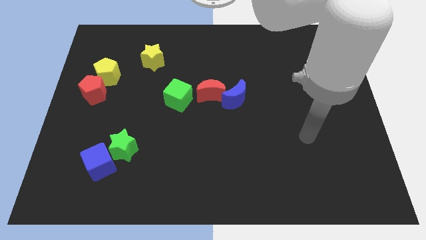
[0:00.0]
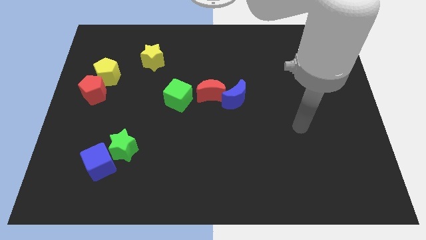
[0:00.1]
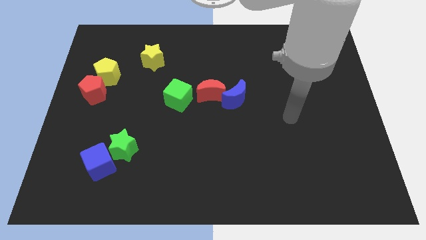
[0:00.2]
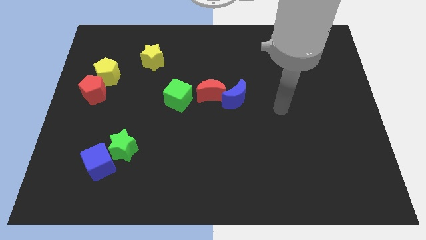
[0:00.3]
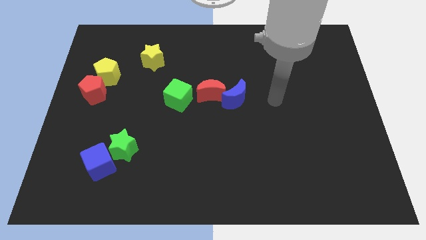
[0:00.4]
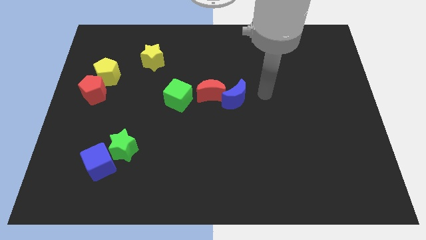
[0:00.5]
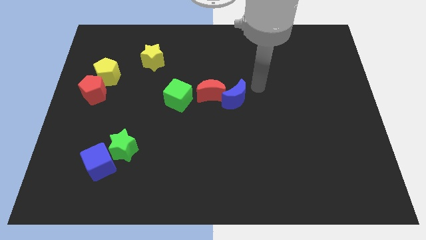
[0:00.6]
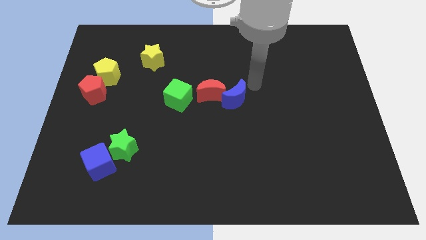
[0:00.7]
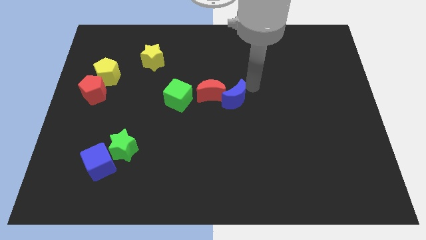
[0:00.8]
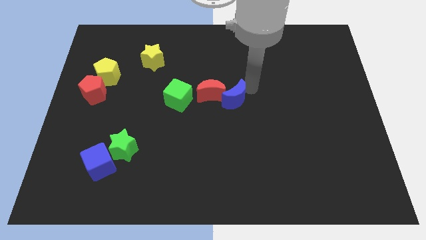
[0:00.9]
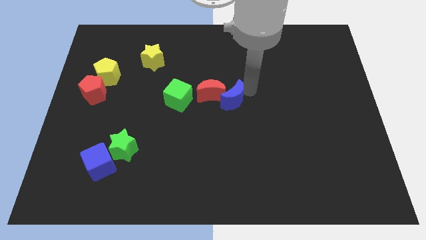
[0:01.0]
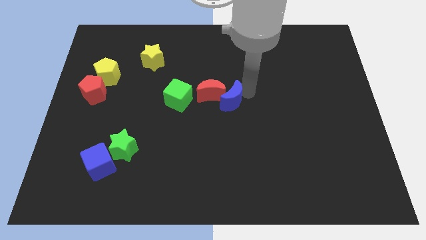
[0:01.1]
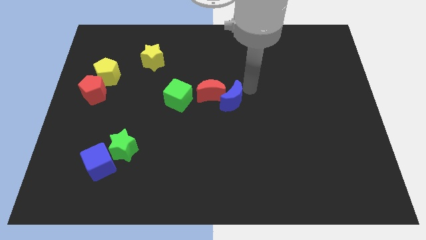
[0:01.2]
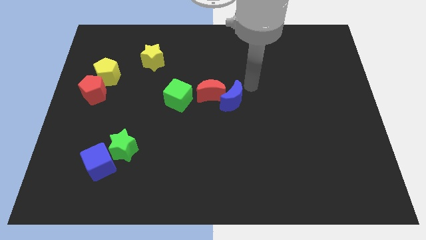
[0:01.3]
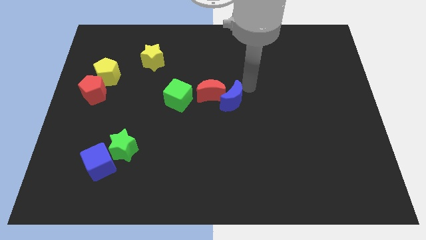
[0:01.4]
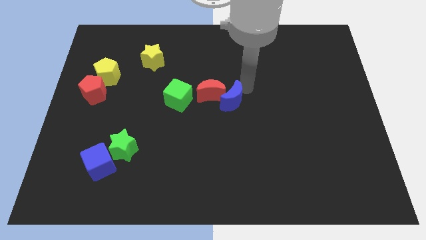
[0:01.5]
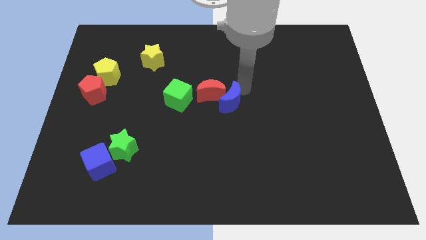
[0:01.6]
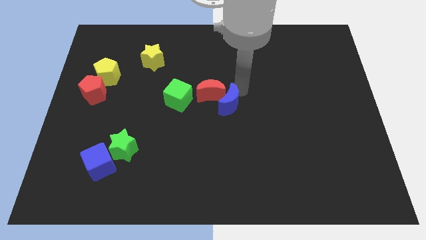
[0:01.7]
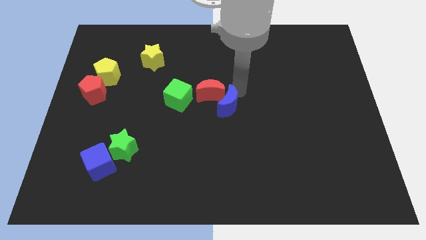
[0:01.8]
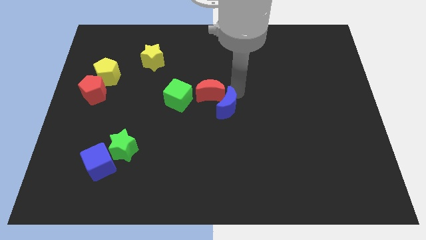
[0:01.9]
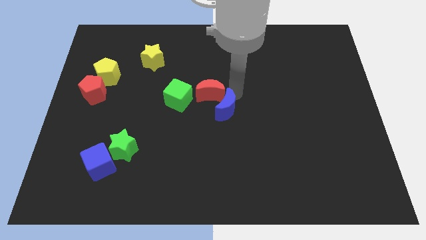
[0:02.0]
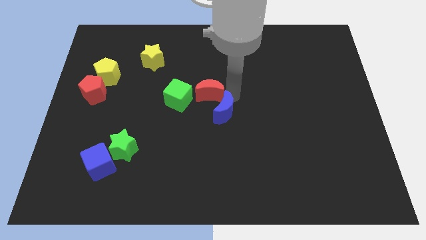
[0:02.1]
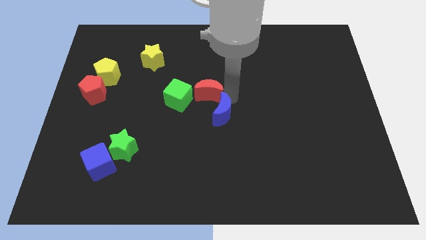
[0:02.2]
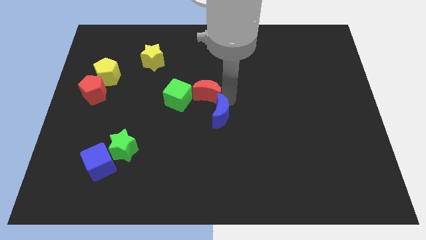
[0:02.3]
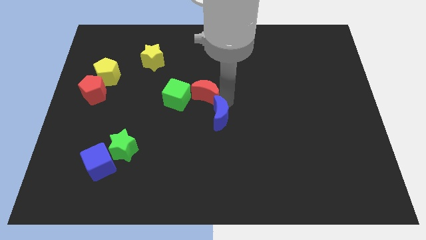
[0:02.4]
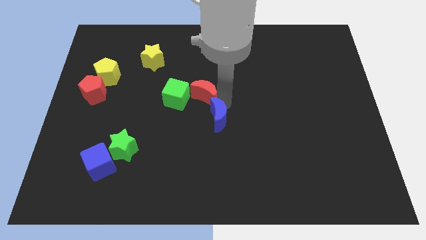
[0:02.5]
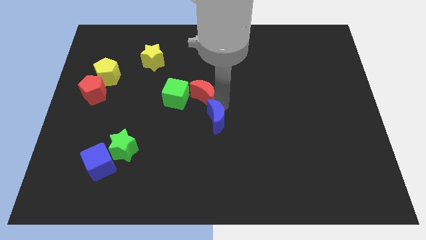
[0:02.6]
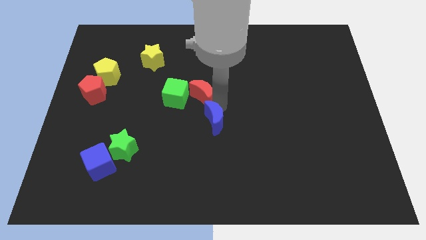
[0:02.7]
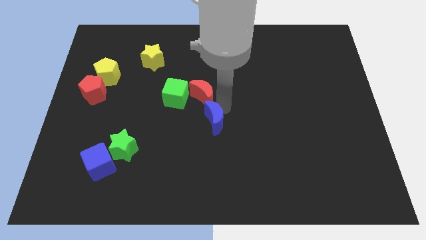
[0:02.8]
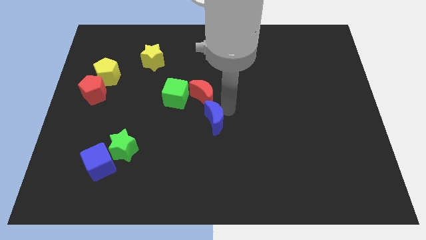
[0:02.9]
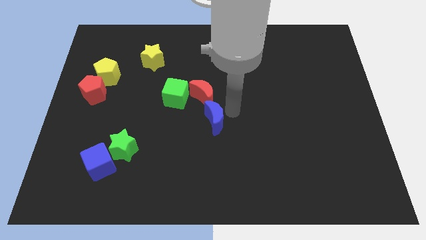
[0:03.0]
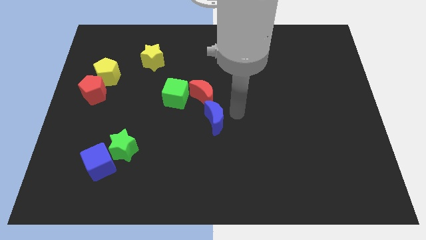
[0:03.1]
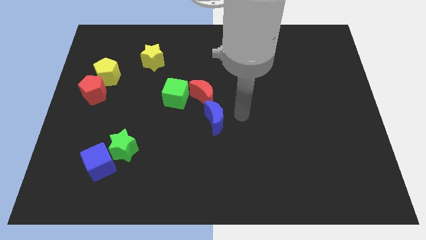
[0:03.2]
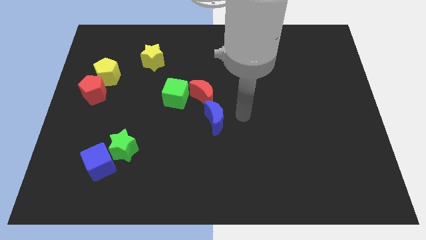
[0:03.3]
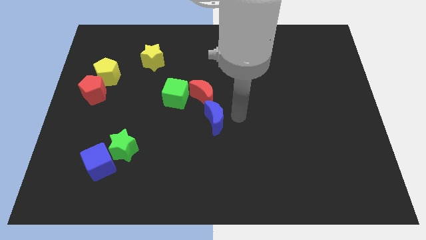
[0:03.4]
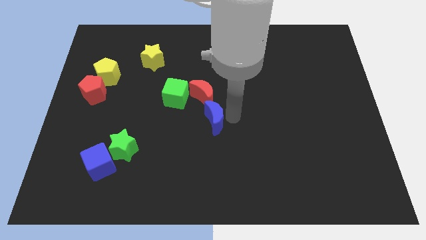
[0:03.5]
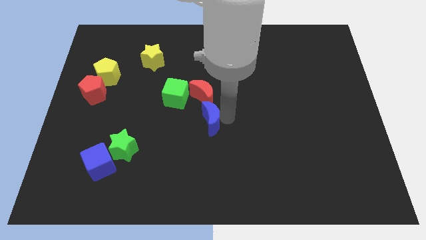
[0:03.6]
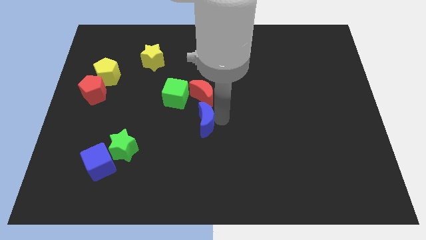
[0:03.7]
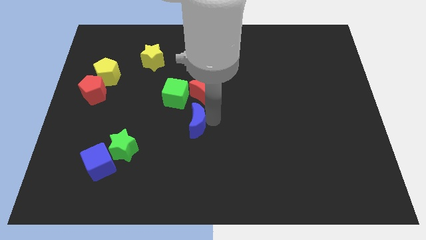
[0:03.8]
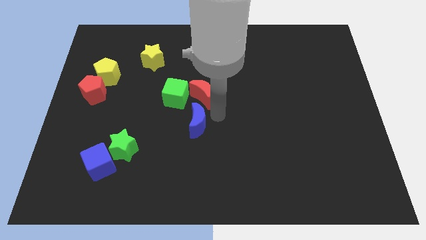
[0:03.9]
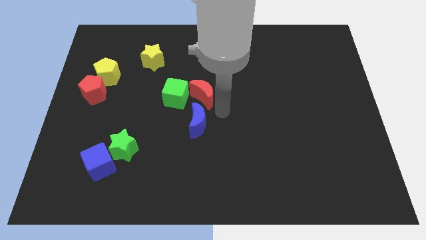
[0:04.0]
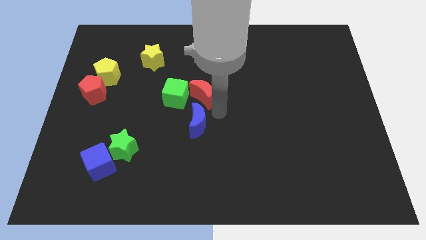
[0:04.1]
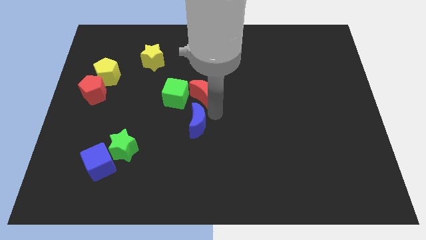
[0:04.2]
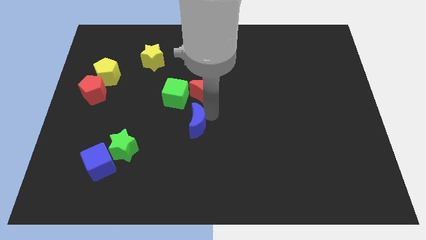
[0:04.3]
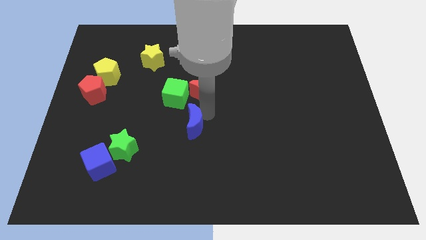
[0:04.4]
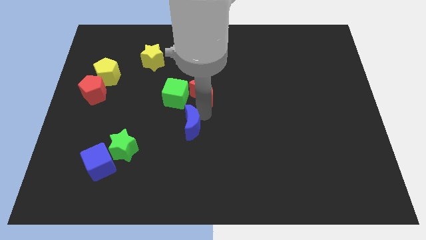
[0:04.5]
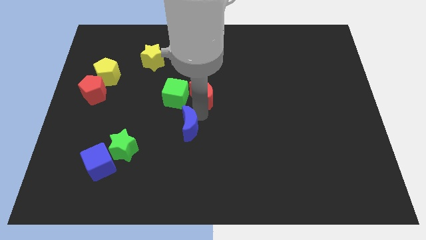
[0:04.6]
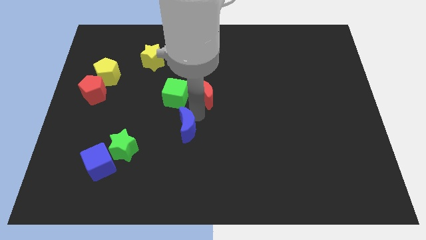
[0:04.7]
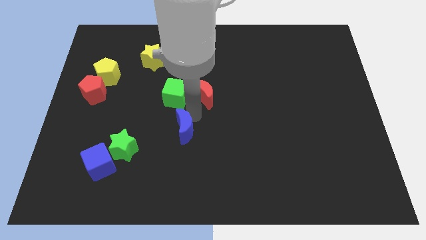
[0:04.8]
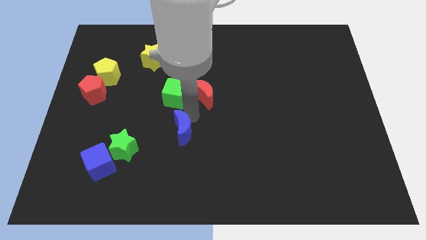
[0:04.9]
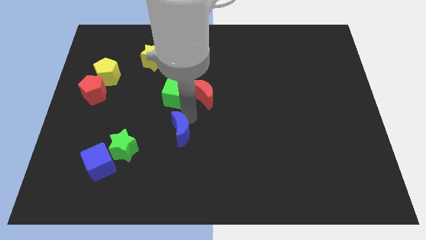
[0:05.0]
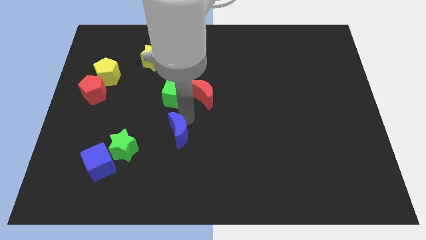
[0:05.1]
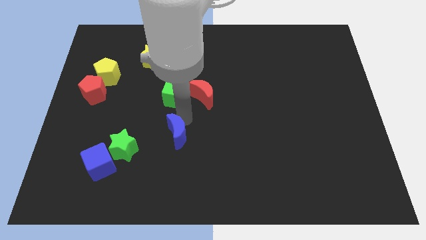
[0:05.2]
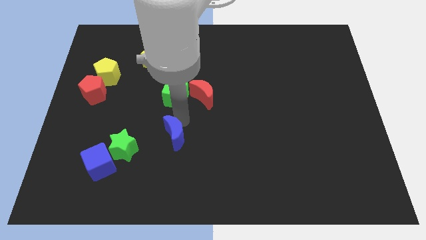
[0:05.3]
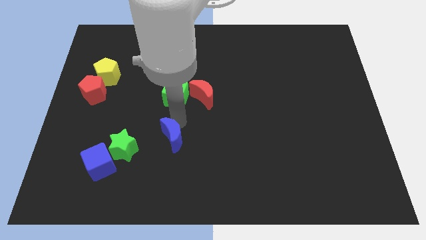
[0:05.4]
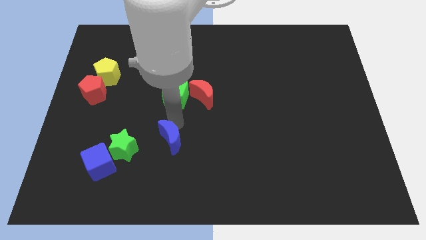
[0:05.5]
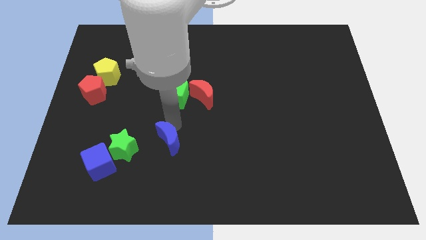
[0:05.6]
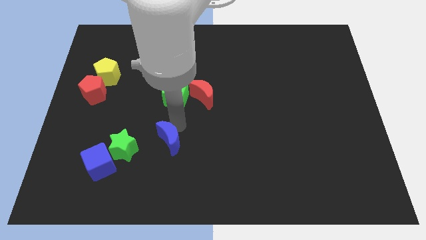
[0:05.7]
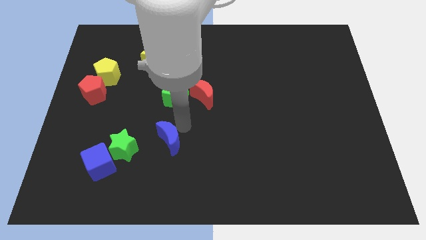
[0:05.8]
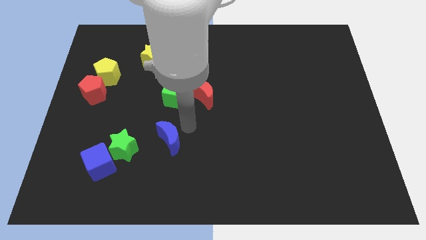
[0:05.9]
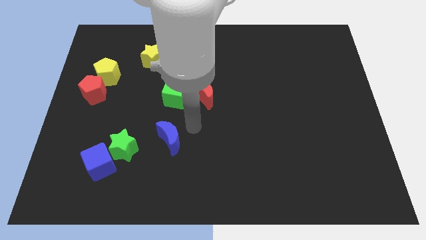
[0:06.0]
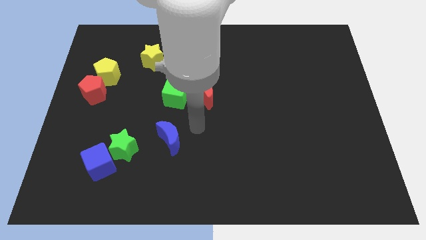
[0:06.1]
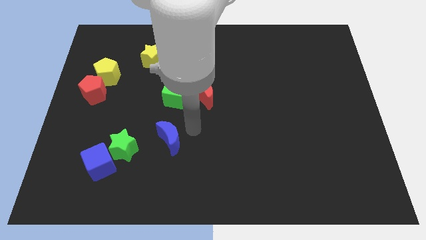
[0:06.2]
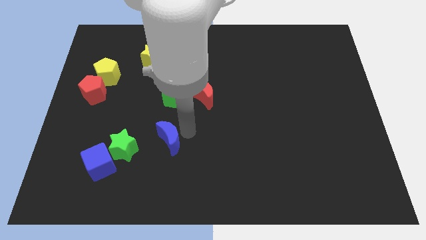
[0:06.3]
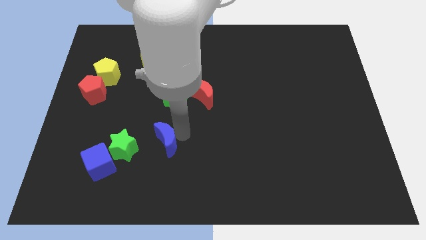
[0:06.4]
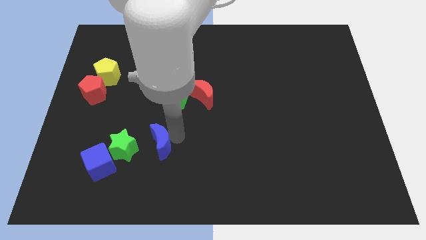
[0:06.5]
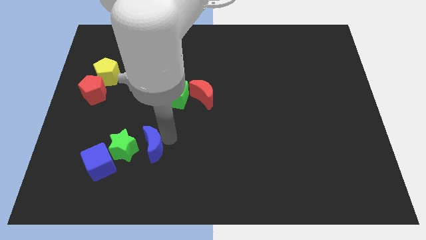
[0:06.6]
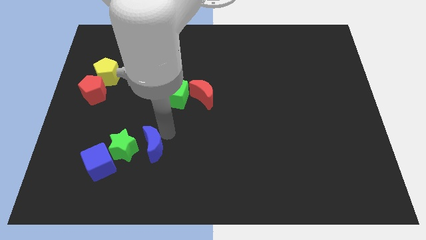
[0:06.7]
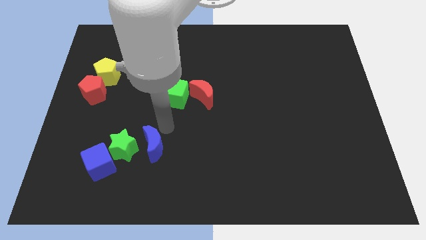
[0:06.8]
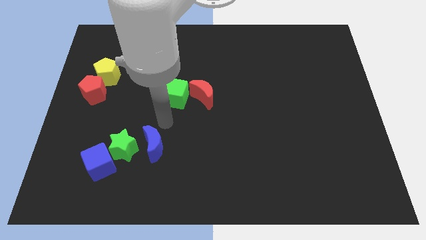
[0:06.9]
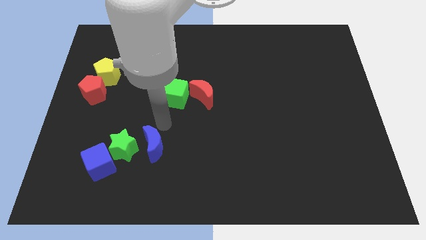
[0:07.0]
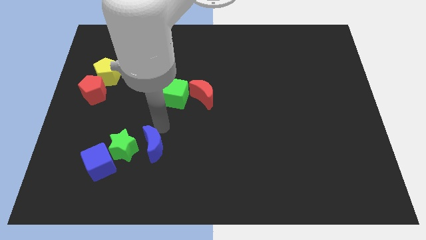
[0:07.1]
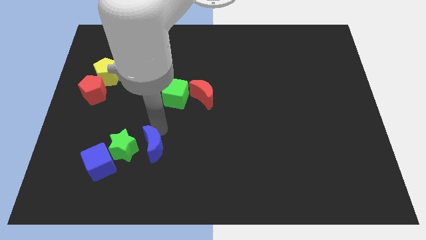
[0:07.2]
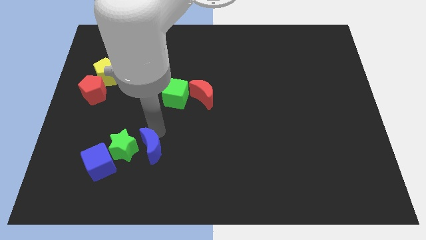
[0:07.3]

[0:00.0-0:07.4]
move the blue moon to the bottom right side of the green star
